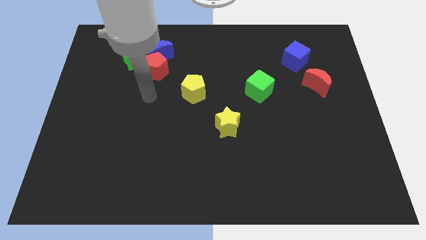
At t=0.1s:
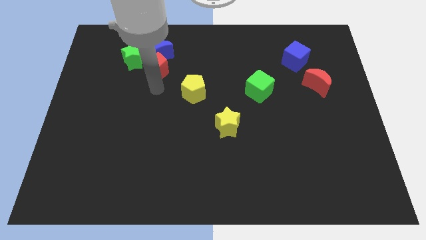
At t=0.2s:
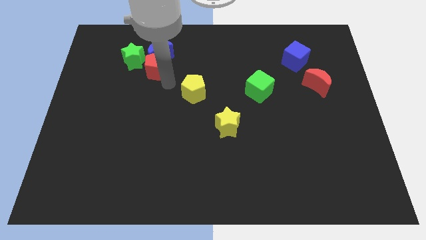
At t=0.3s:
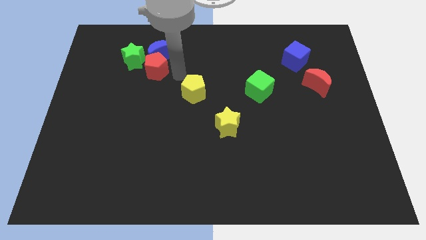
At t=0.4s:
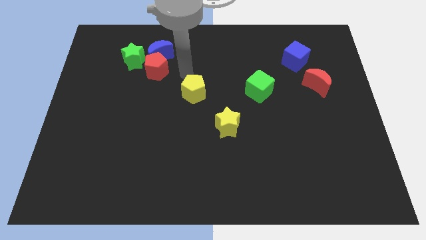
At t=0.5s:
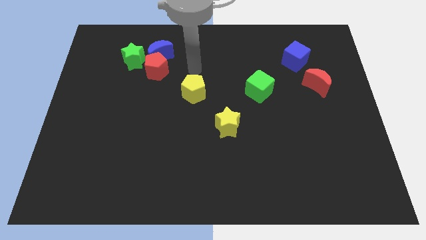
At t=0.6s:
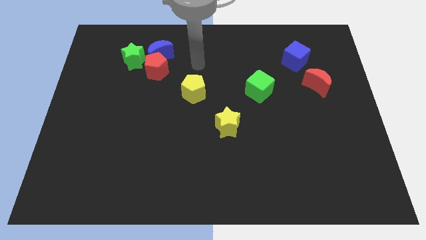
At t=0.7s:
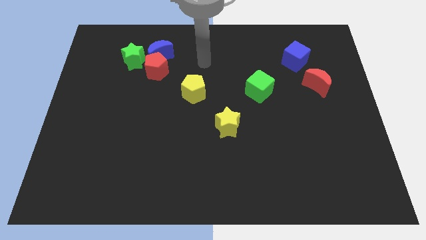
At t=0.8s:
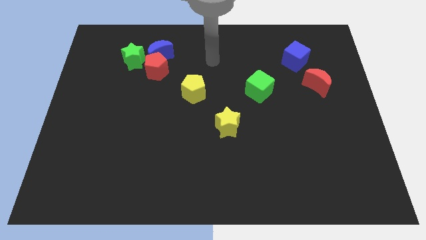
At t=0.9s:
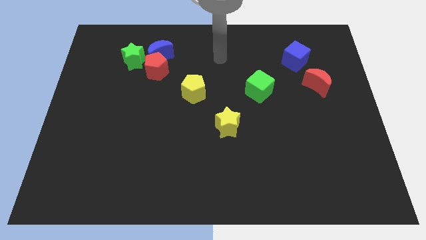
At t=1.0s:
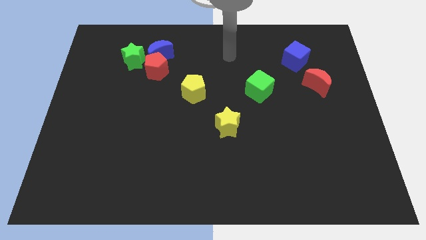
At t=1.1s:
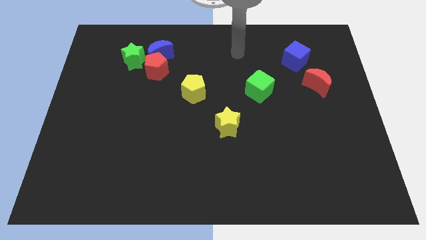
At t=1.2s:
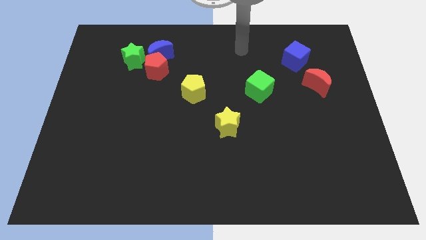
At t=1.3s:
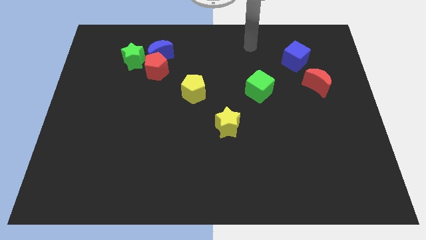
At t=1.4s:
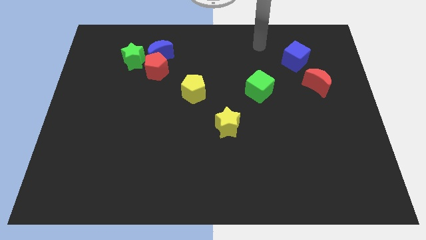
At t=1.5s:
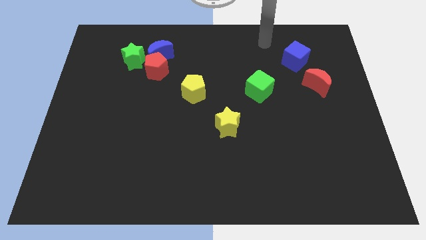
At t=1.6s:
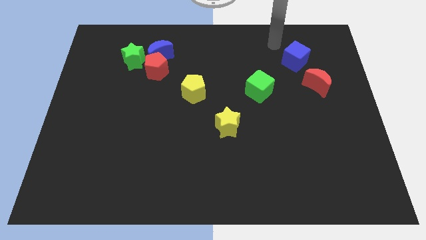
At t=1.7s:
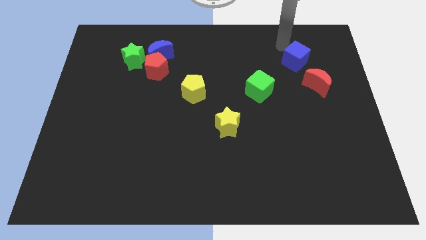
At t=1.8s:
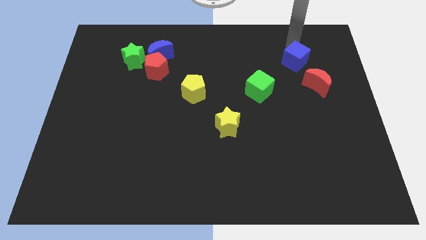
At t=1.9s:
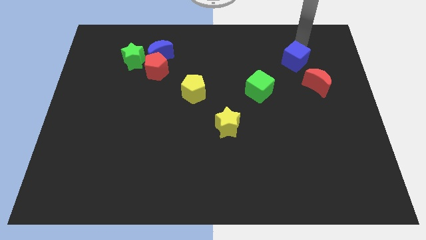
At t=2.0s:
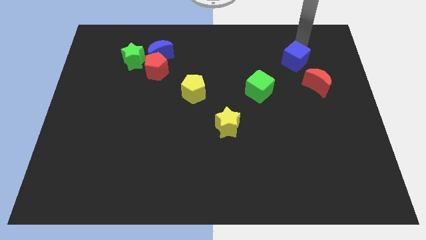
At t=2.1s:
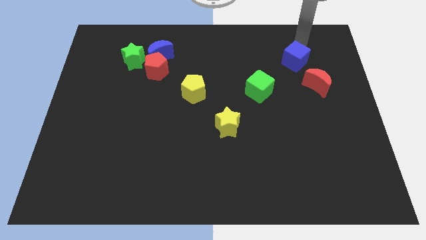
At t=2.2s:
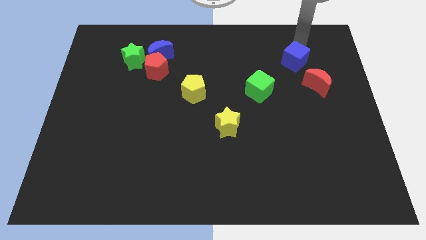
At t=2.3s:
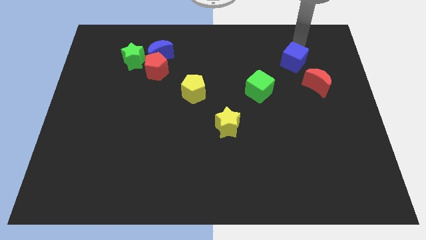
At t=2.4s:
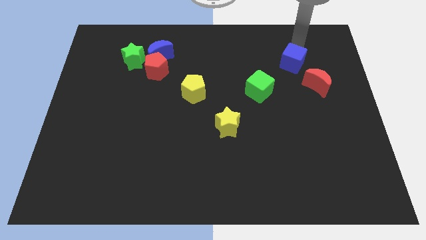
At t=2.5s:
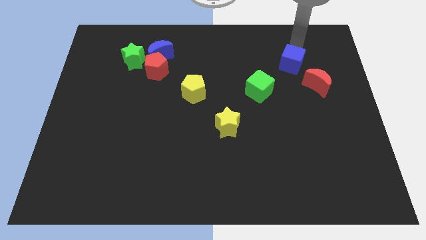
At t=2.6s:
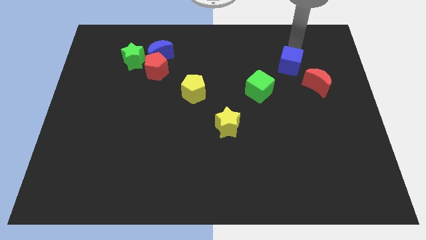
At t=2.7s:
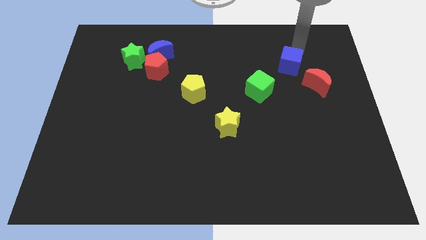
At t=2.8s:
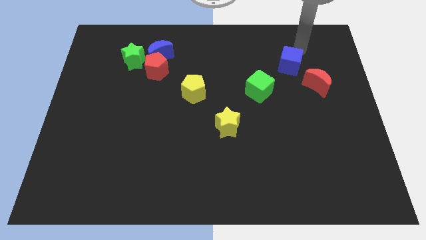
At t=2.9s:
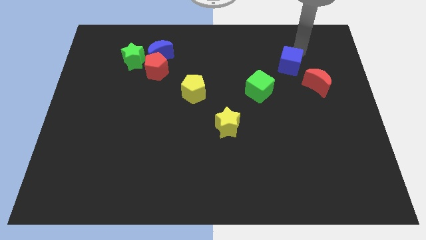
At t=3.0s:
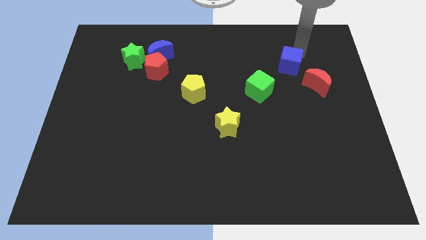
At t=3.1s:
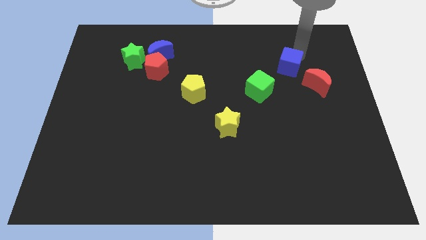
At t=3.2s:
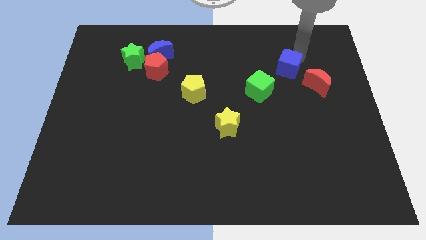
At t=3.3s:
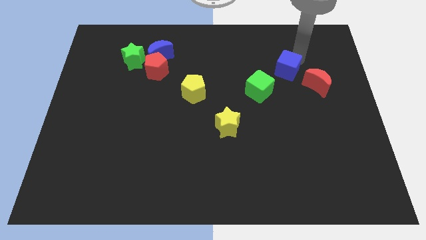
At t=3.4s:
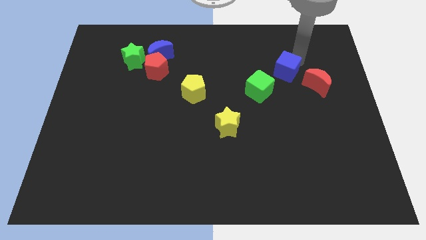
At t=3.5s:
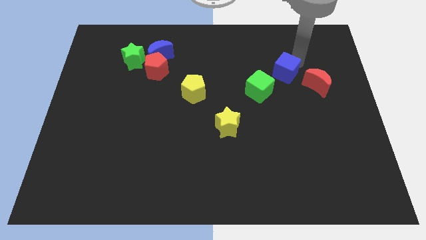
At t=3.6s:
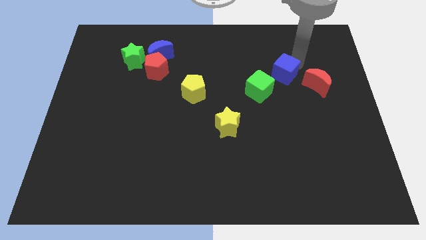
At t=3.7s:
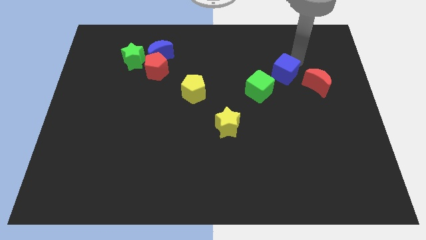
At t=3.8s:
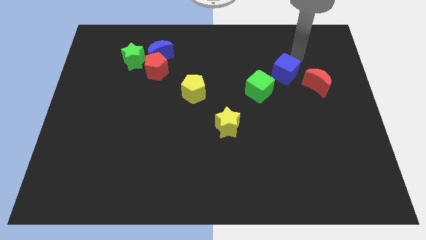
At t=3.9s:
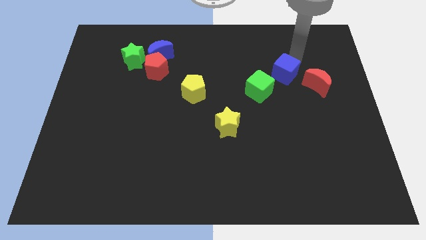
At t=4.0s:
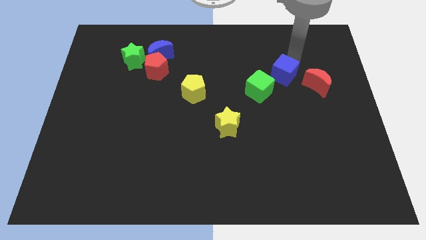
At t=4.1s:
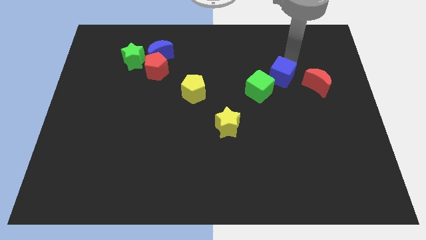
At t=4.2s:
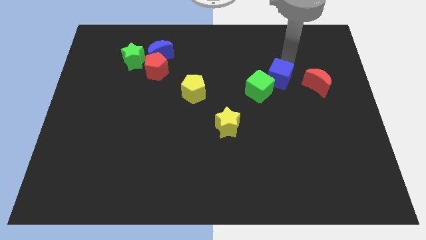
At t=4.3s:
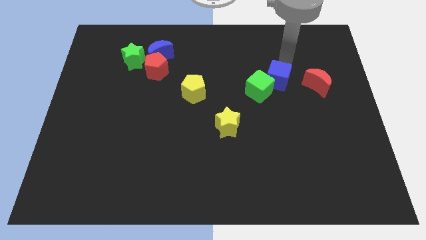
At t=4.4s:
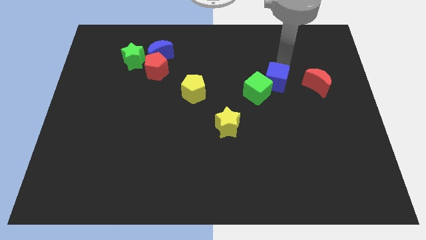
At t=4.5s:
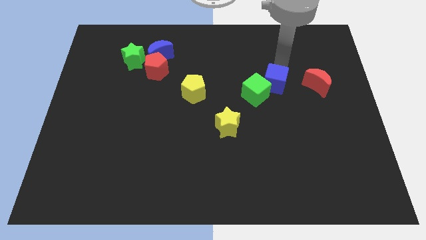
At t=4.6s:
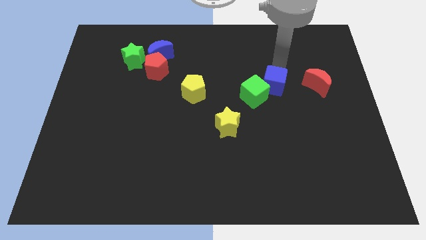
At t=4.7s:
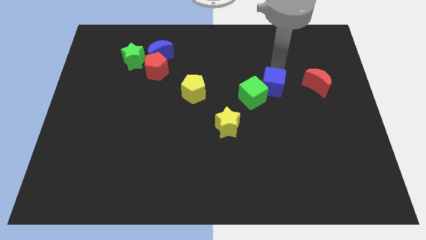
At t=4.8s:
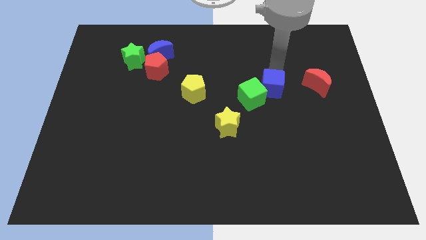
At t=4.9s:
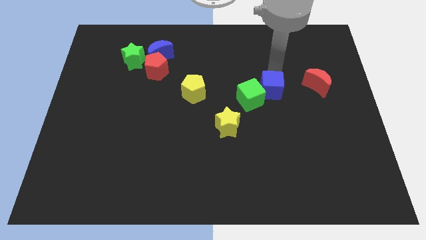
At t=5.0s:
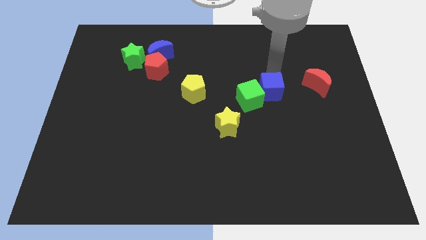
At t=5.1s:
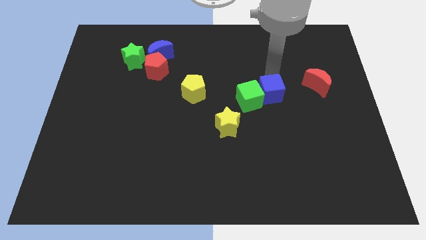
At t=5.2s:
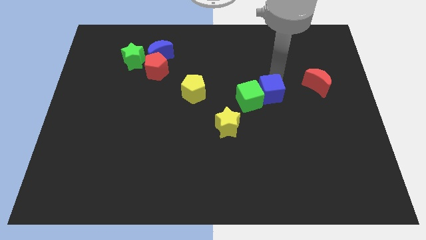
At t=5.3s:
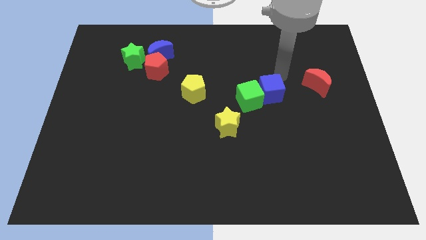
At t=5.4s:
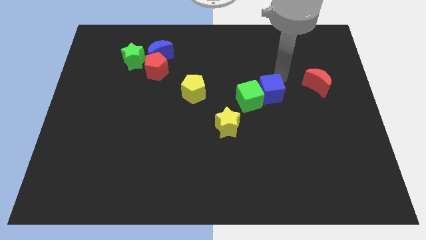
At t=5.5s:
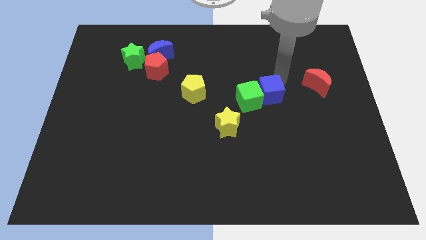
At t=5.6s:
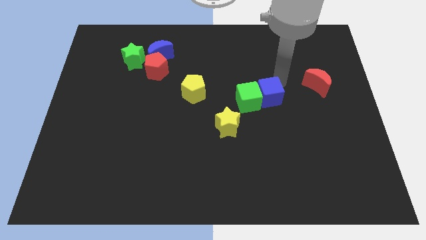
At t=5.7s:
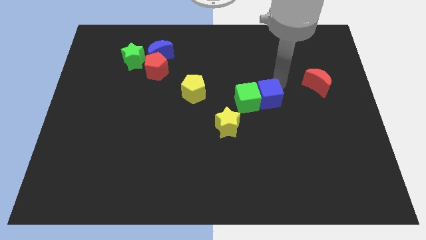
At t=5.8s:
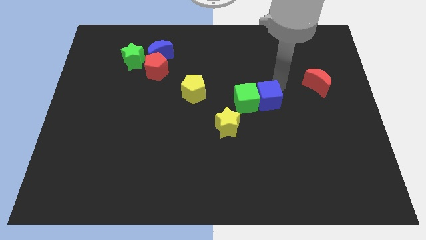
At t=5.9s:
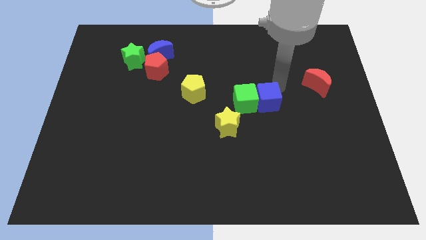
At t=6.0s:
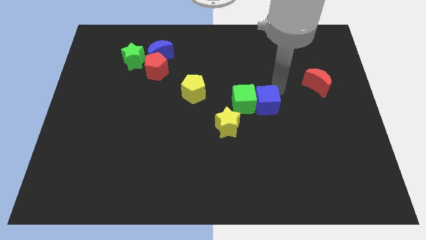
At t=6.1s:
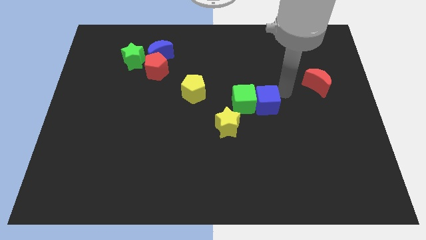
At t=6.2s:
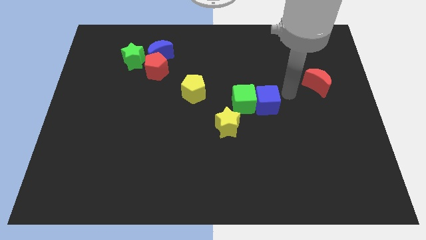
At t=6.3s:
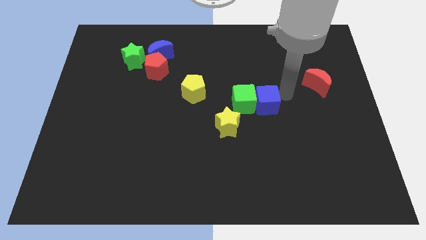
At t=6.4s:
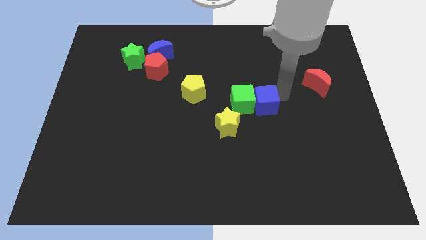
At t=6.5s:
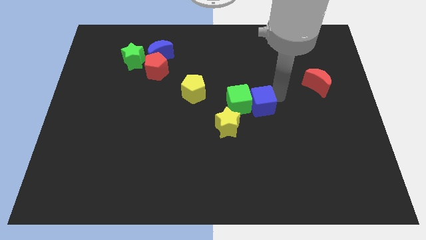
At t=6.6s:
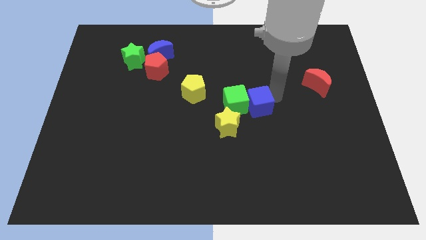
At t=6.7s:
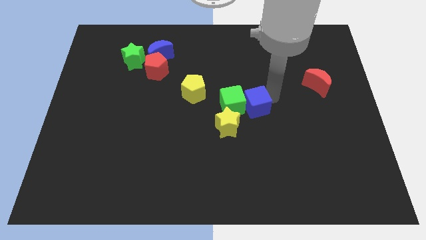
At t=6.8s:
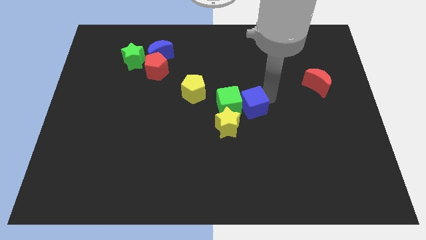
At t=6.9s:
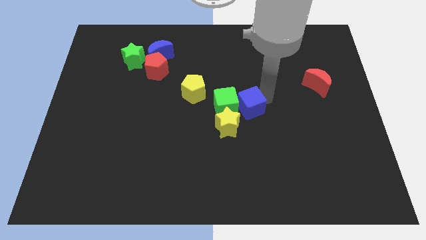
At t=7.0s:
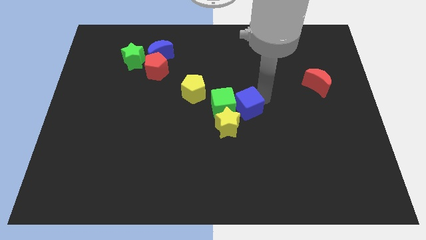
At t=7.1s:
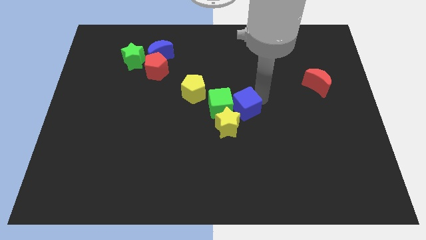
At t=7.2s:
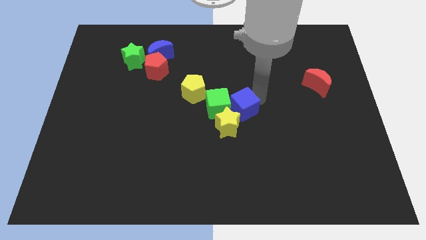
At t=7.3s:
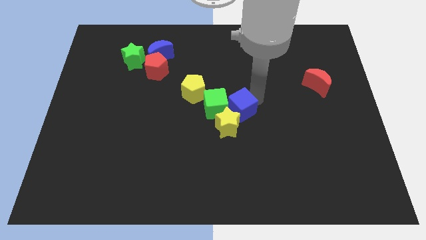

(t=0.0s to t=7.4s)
push the blue cube close to the yellow star
